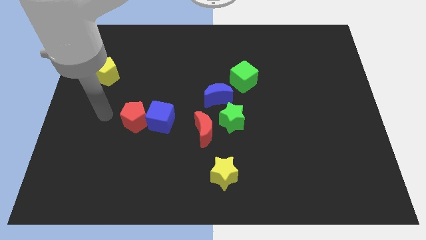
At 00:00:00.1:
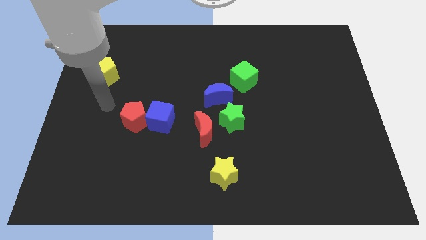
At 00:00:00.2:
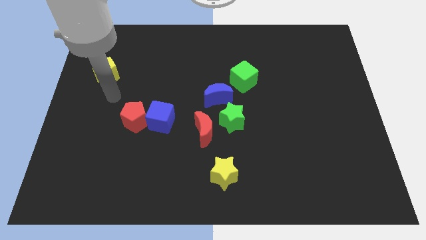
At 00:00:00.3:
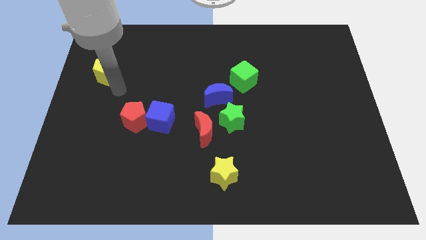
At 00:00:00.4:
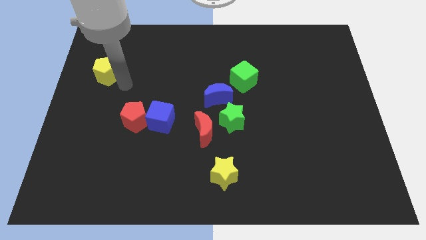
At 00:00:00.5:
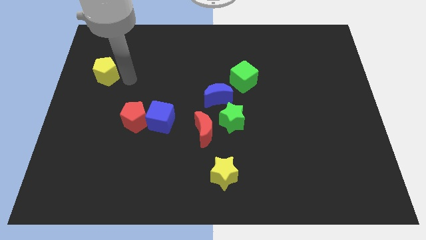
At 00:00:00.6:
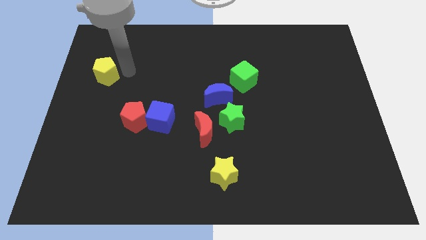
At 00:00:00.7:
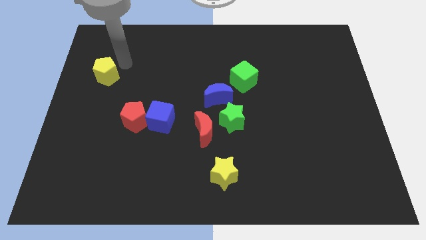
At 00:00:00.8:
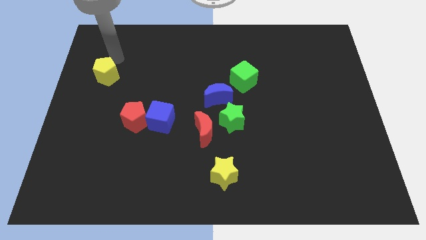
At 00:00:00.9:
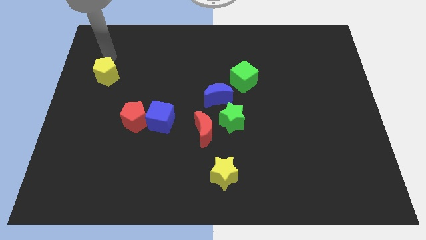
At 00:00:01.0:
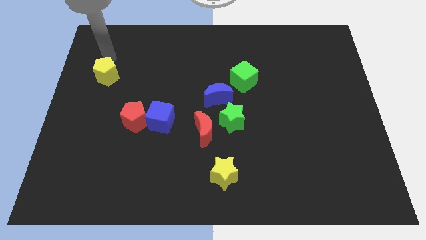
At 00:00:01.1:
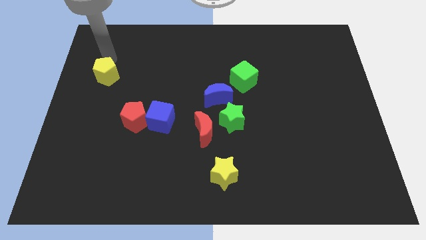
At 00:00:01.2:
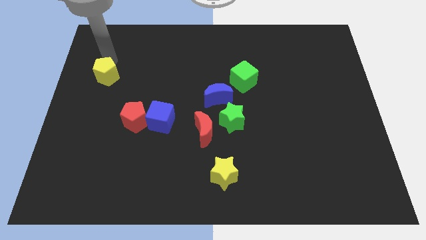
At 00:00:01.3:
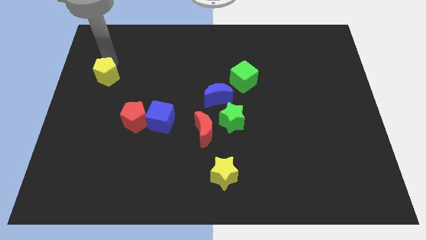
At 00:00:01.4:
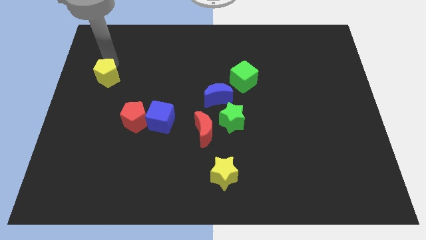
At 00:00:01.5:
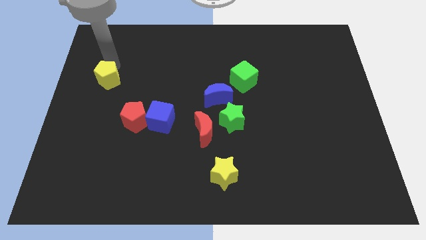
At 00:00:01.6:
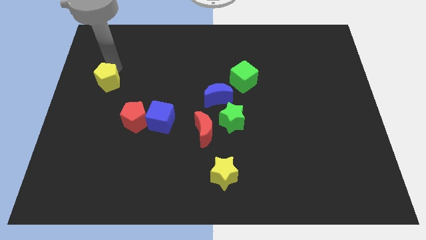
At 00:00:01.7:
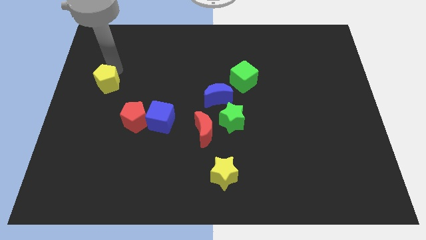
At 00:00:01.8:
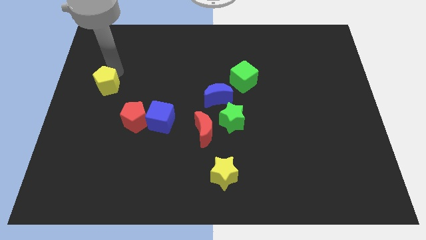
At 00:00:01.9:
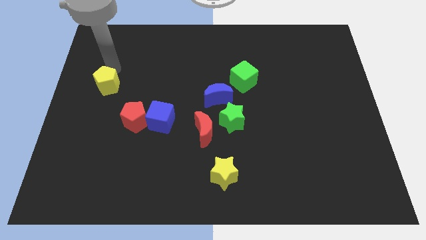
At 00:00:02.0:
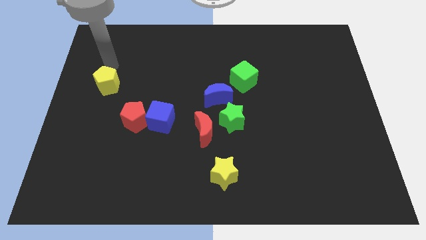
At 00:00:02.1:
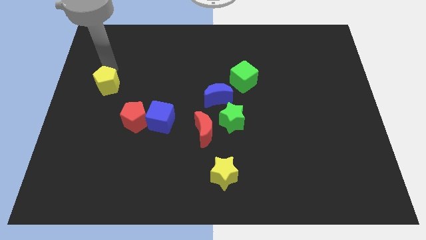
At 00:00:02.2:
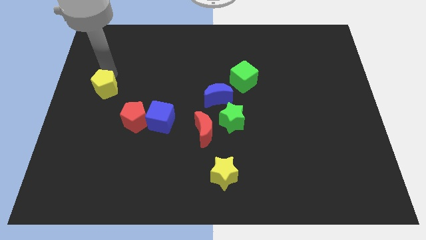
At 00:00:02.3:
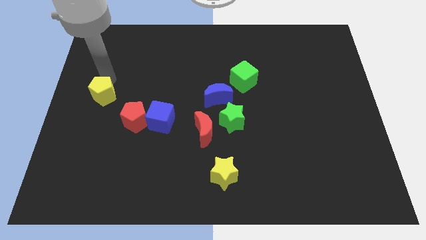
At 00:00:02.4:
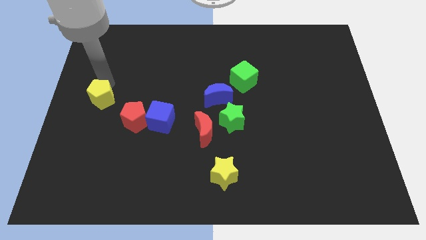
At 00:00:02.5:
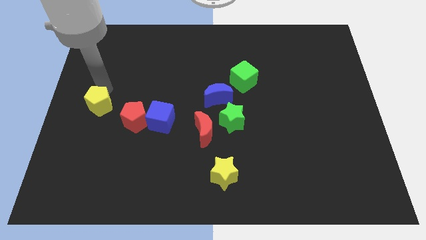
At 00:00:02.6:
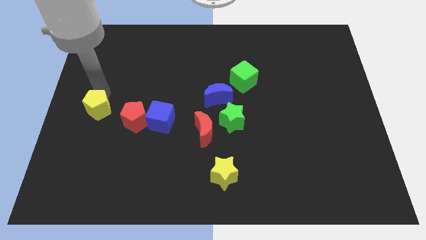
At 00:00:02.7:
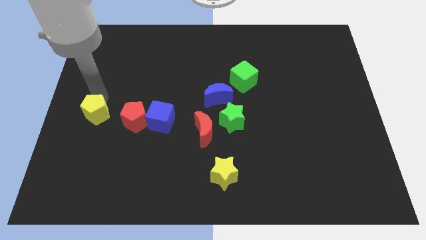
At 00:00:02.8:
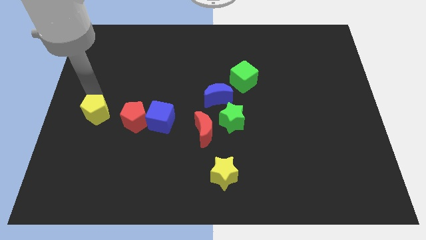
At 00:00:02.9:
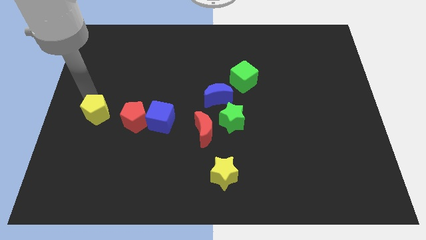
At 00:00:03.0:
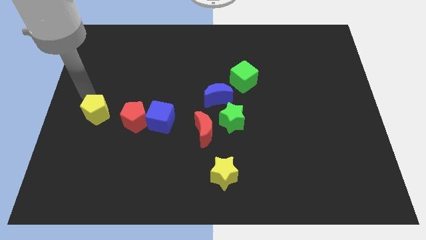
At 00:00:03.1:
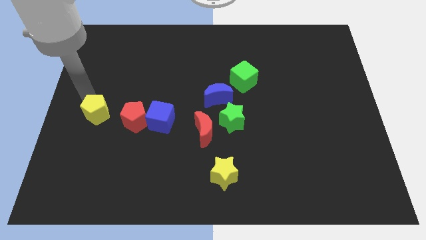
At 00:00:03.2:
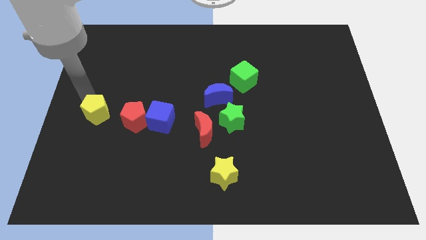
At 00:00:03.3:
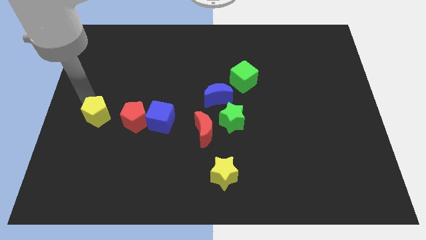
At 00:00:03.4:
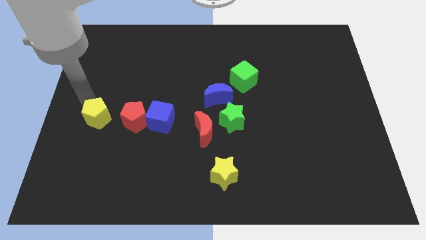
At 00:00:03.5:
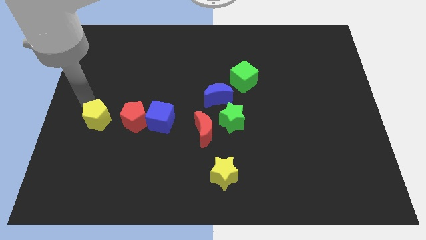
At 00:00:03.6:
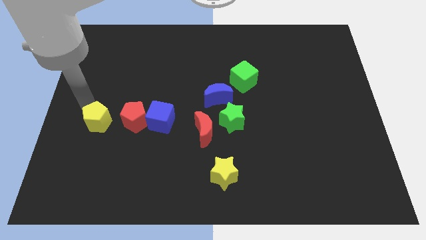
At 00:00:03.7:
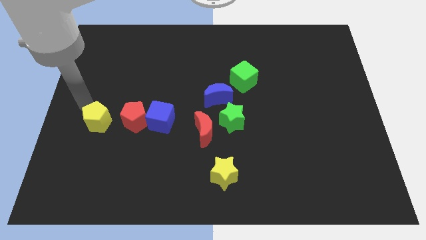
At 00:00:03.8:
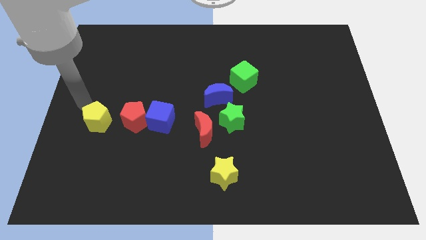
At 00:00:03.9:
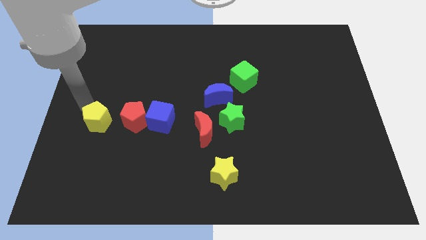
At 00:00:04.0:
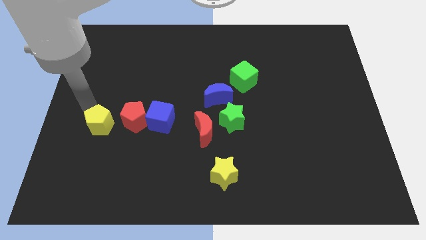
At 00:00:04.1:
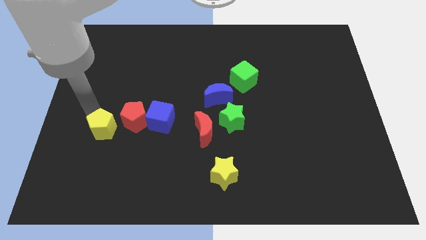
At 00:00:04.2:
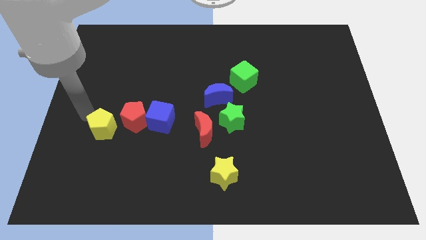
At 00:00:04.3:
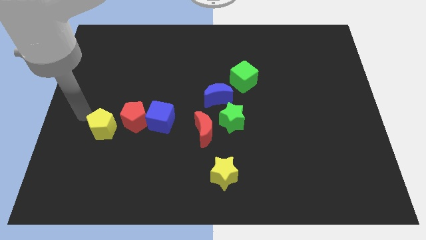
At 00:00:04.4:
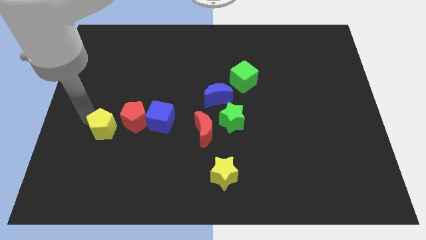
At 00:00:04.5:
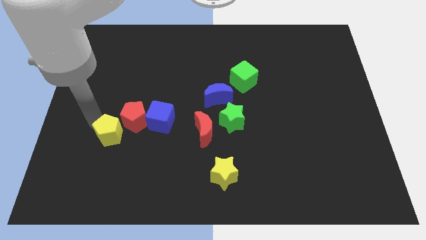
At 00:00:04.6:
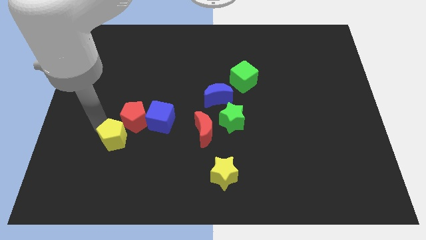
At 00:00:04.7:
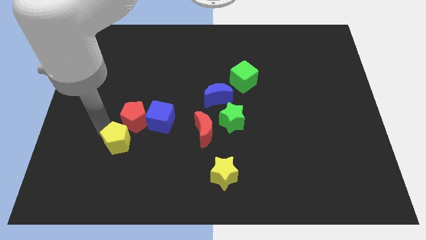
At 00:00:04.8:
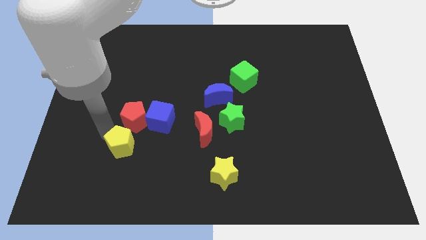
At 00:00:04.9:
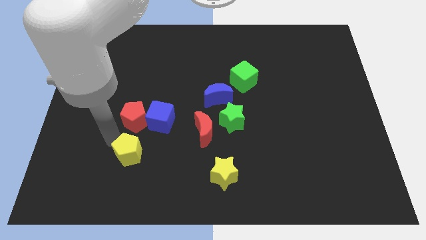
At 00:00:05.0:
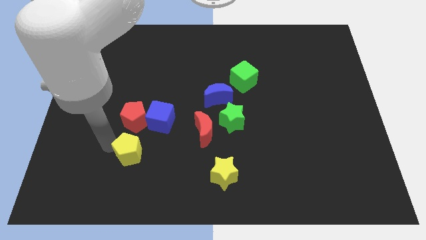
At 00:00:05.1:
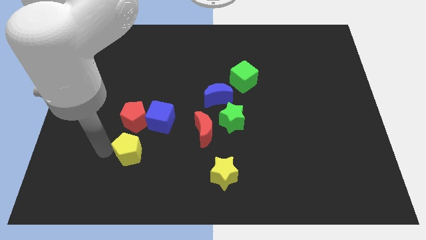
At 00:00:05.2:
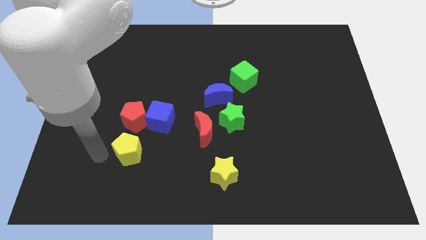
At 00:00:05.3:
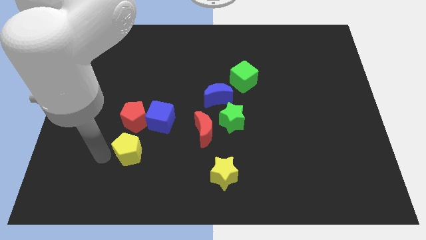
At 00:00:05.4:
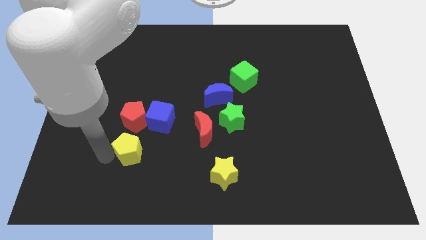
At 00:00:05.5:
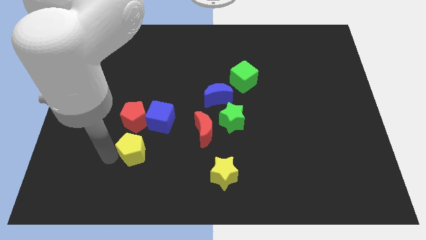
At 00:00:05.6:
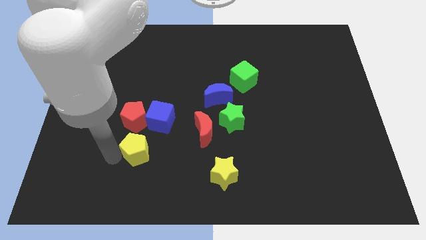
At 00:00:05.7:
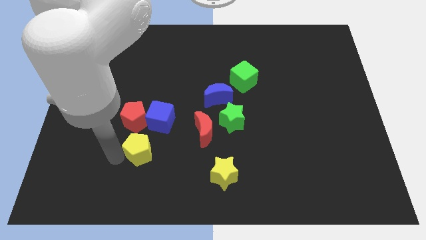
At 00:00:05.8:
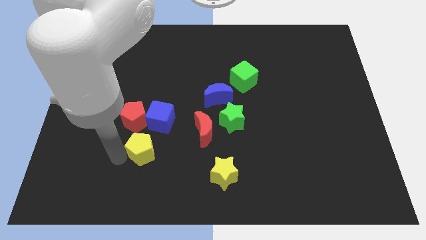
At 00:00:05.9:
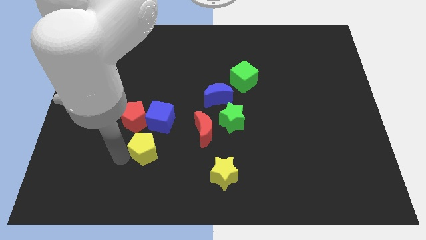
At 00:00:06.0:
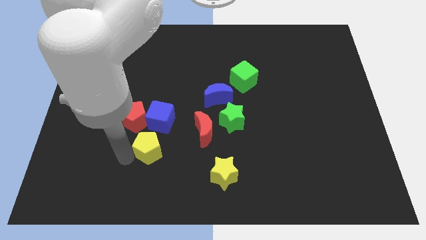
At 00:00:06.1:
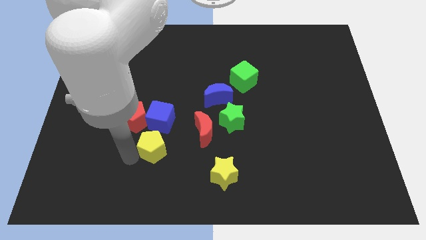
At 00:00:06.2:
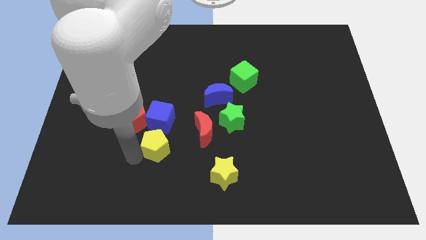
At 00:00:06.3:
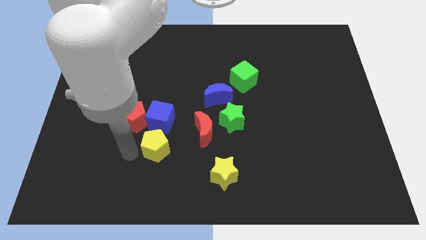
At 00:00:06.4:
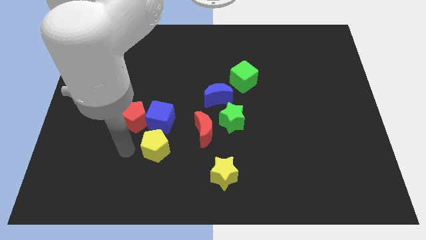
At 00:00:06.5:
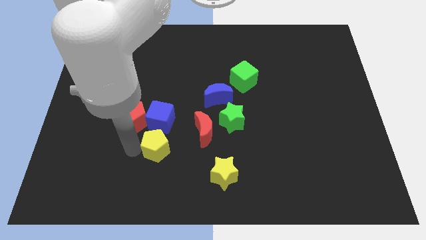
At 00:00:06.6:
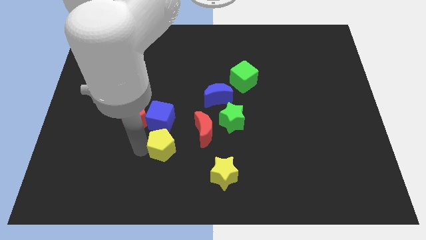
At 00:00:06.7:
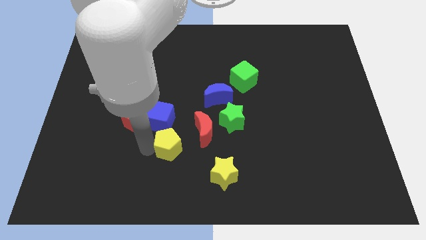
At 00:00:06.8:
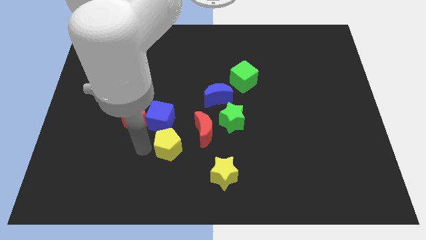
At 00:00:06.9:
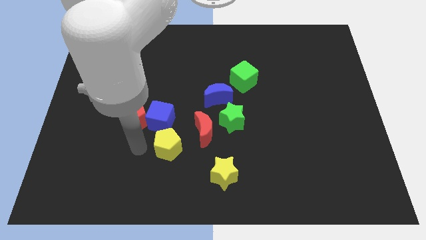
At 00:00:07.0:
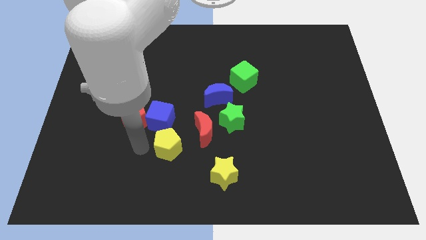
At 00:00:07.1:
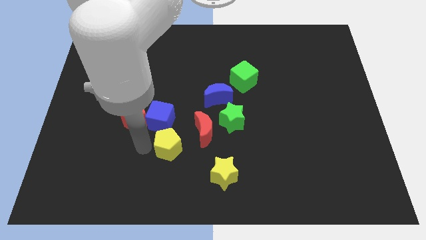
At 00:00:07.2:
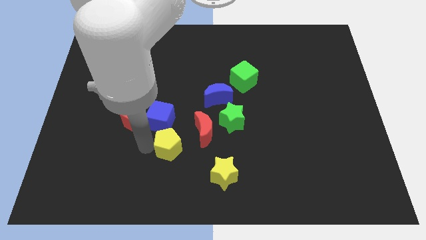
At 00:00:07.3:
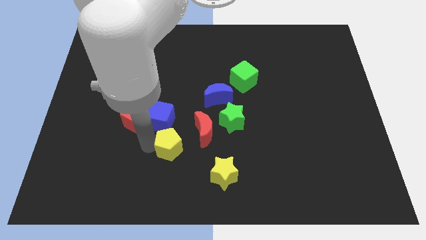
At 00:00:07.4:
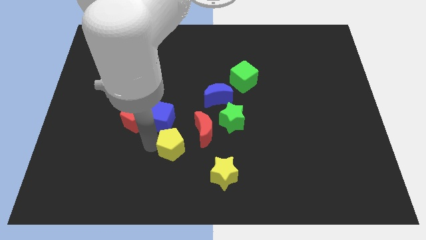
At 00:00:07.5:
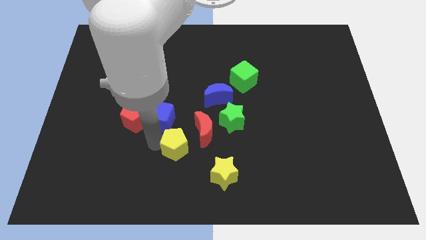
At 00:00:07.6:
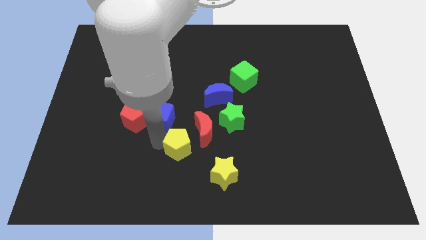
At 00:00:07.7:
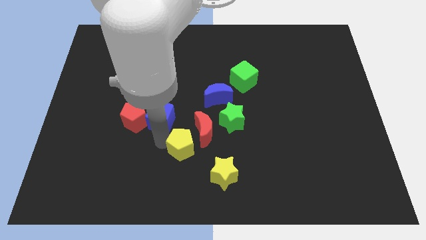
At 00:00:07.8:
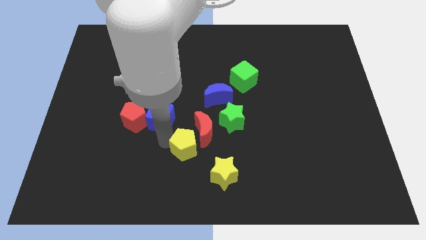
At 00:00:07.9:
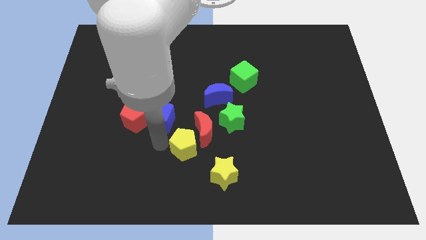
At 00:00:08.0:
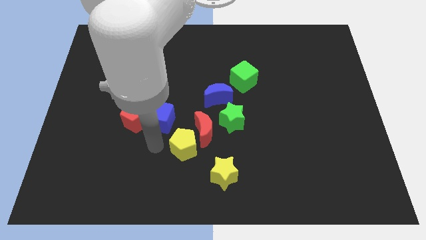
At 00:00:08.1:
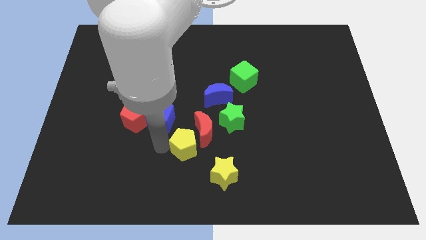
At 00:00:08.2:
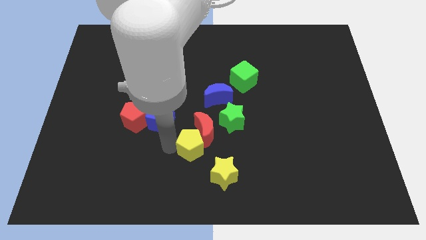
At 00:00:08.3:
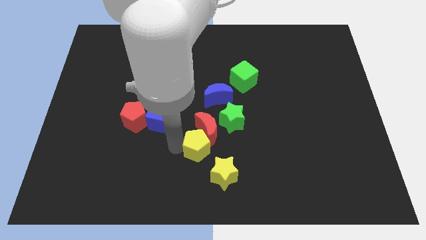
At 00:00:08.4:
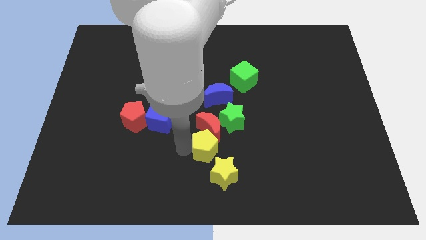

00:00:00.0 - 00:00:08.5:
put the yellow pentagon below the blue moon
